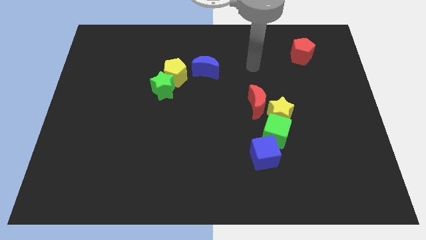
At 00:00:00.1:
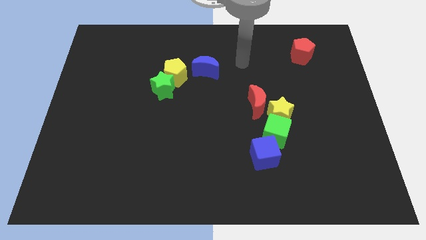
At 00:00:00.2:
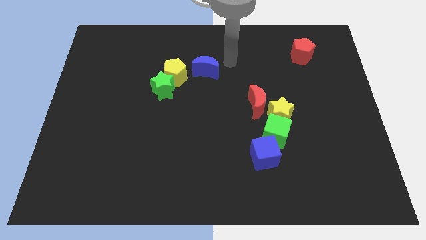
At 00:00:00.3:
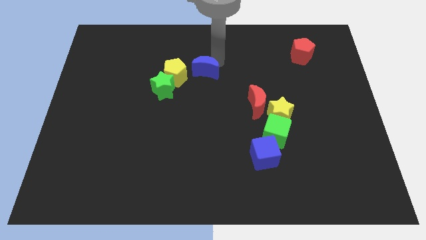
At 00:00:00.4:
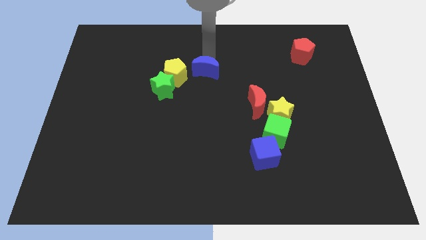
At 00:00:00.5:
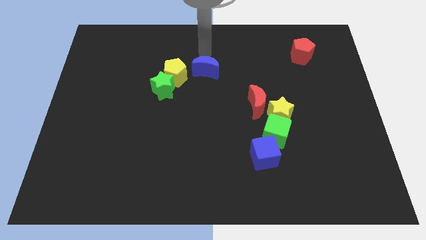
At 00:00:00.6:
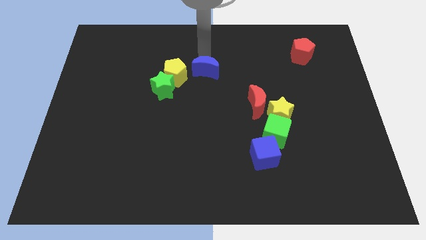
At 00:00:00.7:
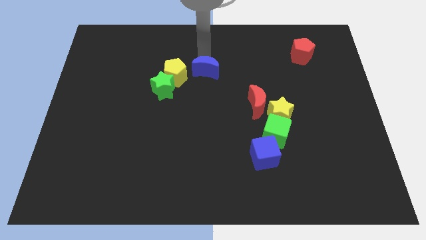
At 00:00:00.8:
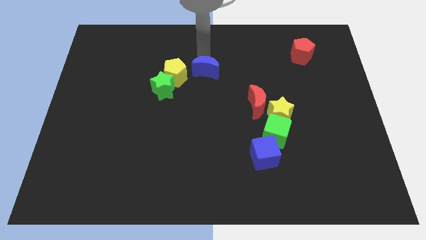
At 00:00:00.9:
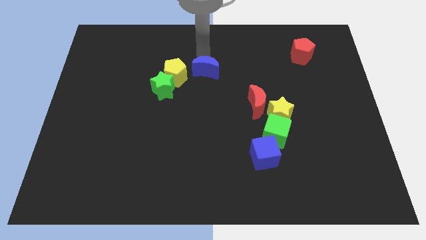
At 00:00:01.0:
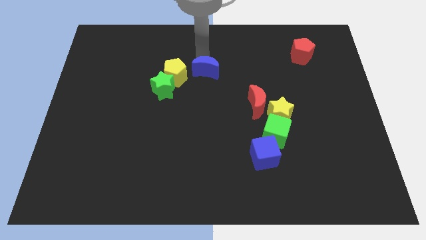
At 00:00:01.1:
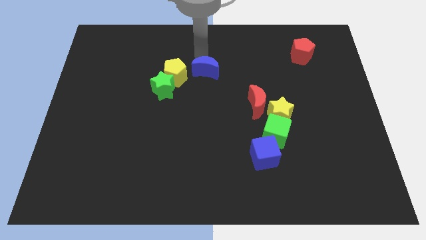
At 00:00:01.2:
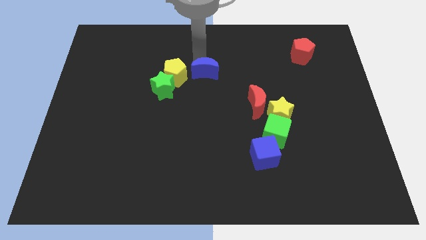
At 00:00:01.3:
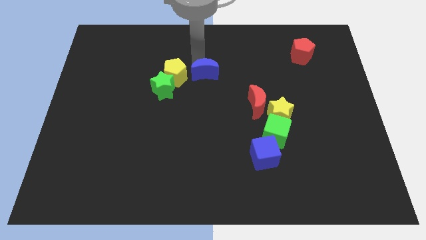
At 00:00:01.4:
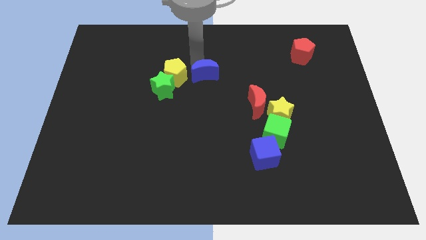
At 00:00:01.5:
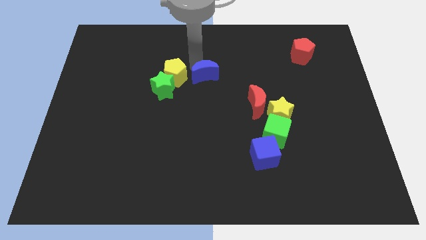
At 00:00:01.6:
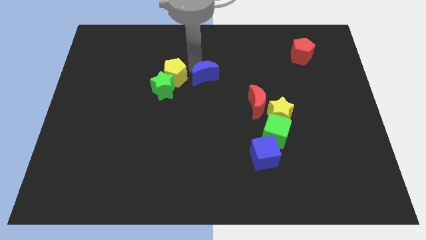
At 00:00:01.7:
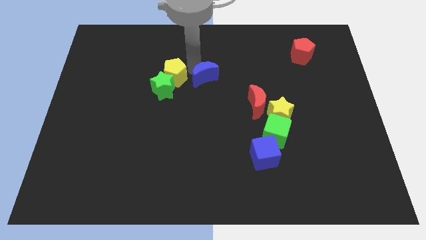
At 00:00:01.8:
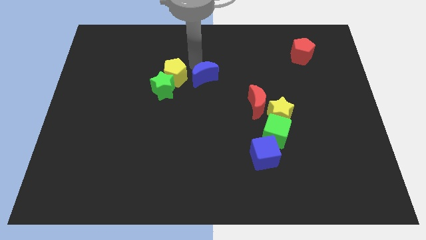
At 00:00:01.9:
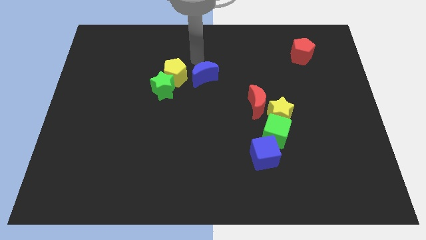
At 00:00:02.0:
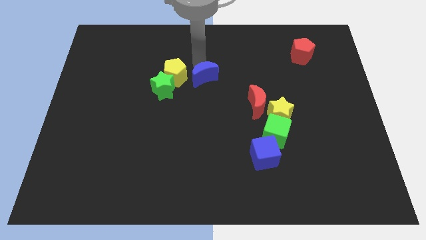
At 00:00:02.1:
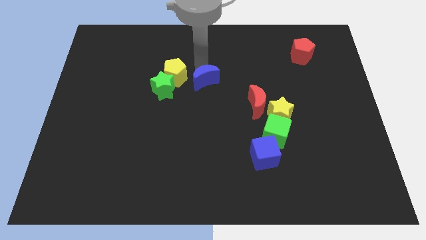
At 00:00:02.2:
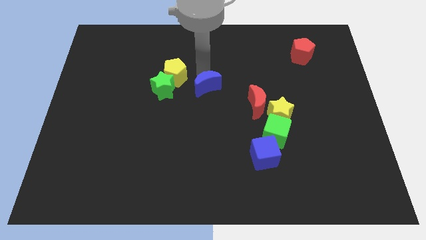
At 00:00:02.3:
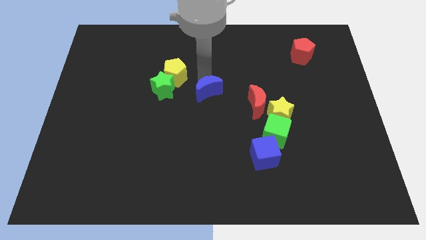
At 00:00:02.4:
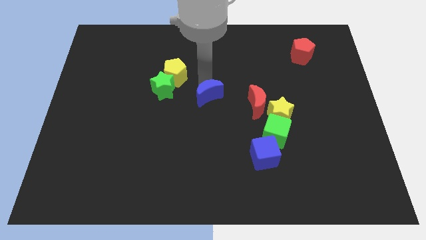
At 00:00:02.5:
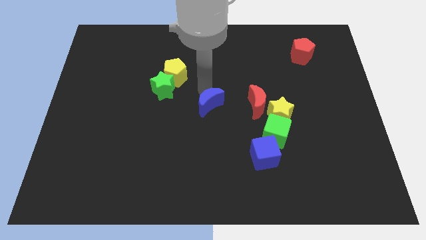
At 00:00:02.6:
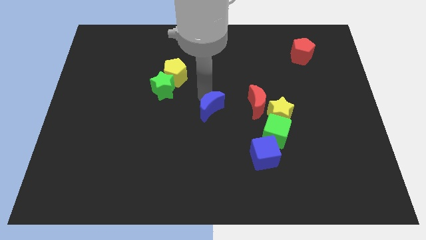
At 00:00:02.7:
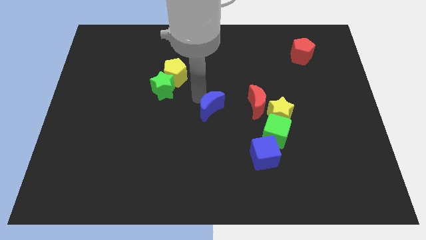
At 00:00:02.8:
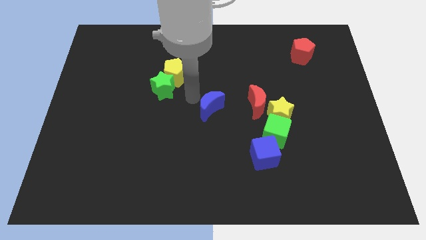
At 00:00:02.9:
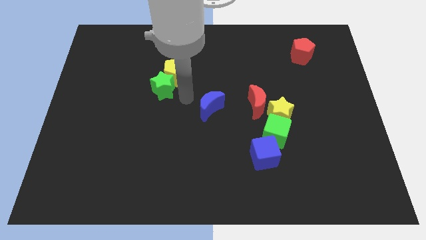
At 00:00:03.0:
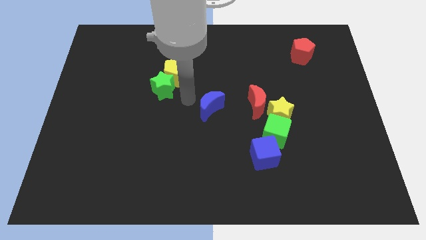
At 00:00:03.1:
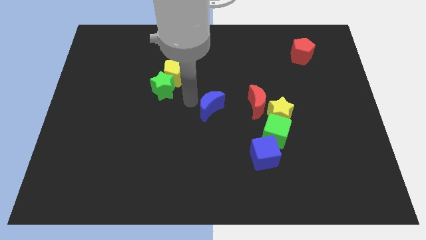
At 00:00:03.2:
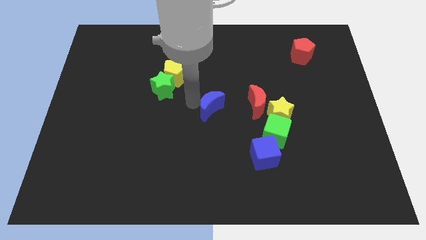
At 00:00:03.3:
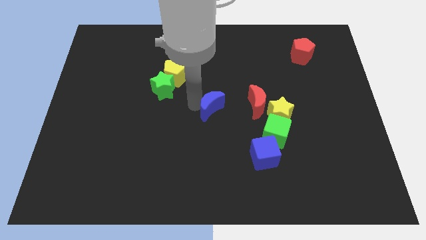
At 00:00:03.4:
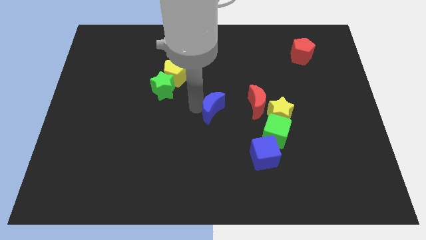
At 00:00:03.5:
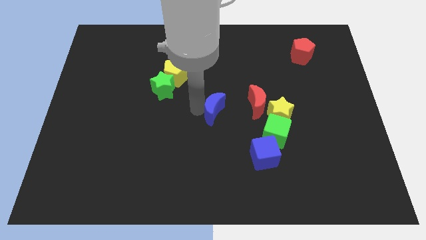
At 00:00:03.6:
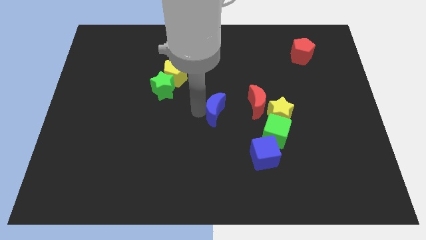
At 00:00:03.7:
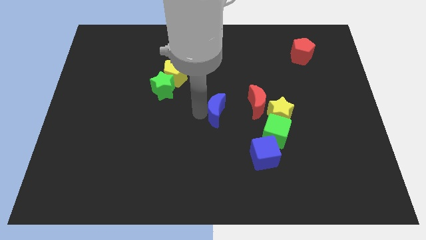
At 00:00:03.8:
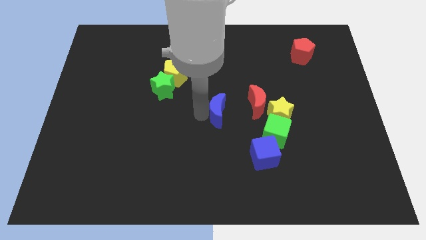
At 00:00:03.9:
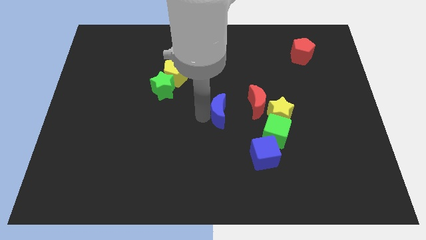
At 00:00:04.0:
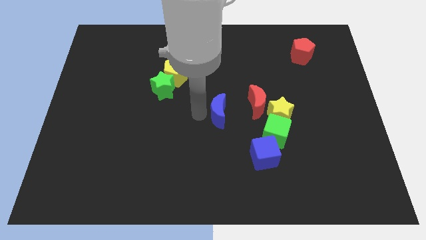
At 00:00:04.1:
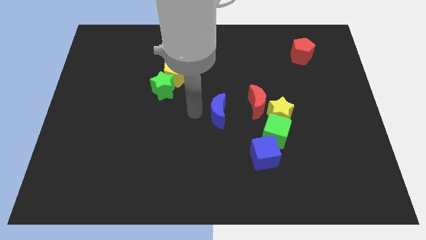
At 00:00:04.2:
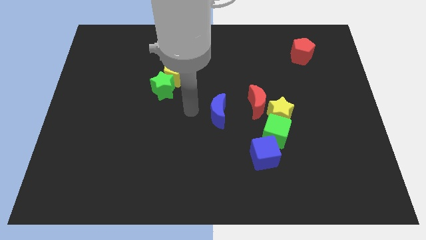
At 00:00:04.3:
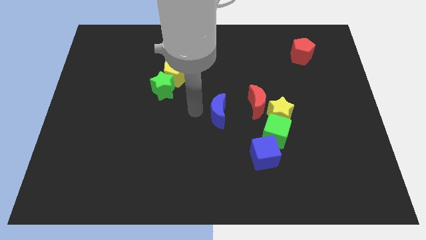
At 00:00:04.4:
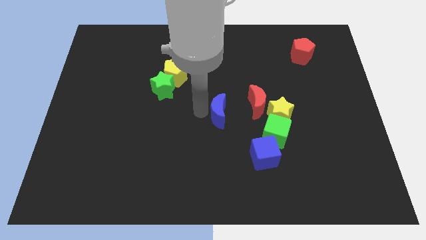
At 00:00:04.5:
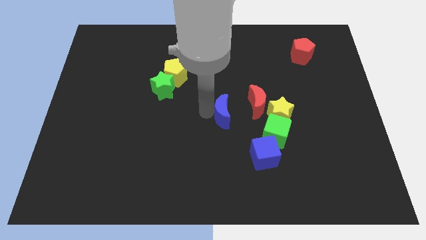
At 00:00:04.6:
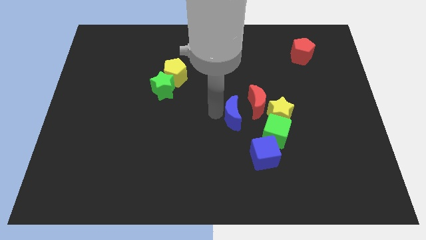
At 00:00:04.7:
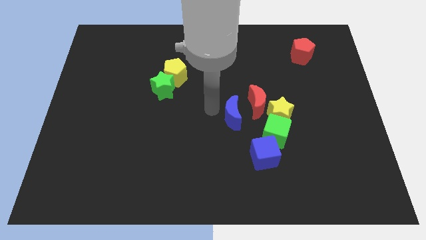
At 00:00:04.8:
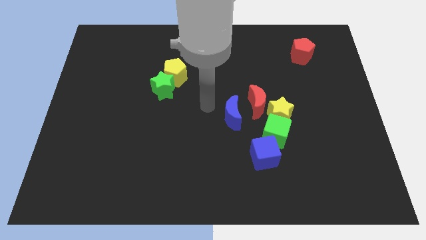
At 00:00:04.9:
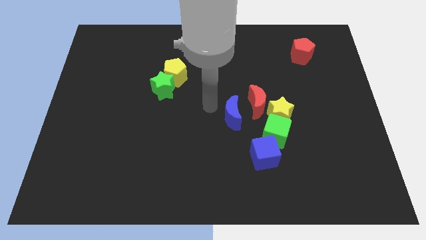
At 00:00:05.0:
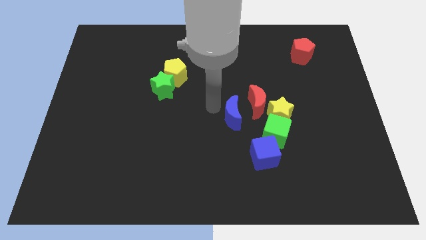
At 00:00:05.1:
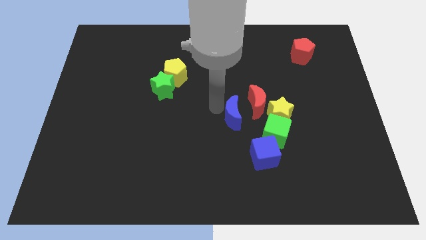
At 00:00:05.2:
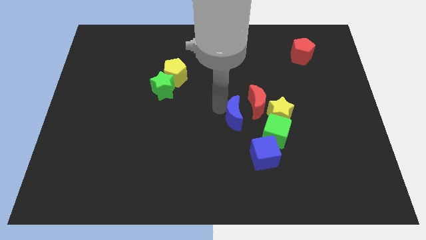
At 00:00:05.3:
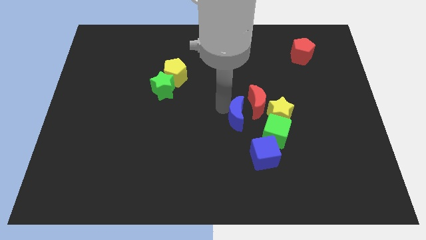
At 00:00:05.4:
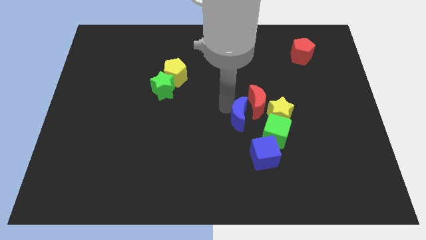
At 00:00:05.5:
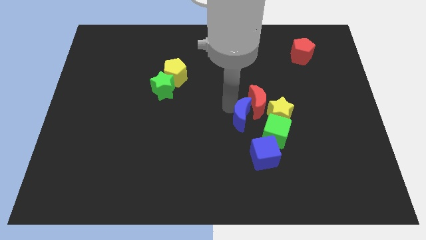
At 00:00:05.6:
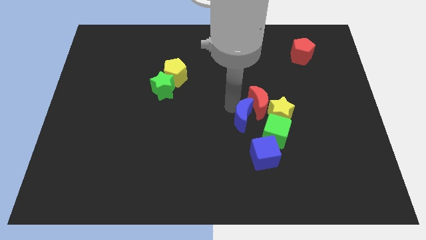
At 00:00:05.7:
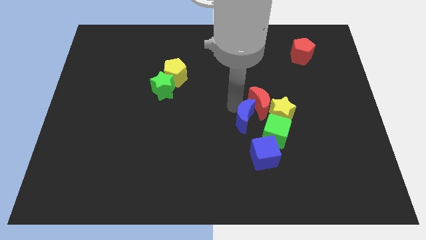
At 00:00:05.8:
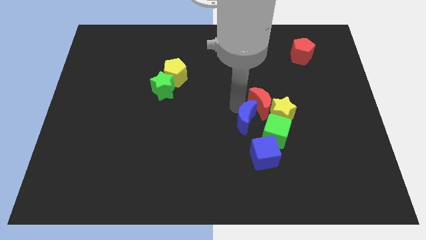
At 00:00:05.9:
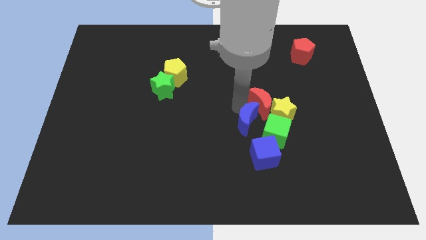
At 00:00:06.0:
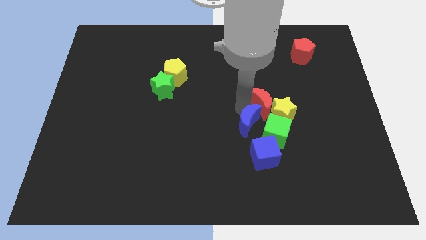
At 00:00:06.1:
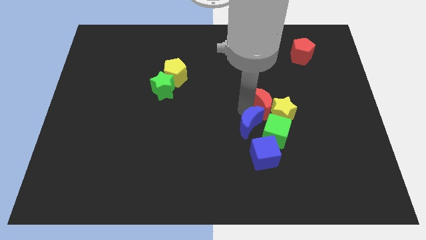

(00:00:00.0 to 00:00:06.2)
push the blue moon next to the green cube

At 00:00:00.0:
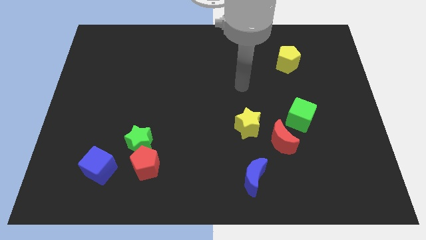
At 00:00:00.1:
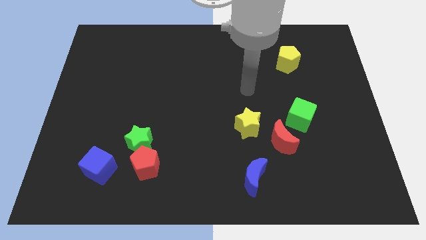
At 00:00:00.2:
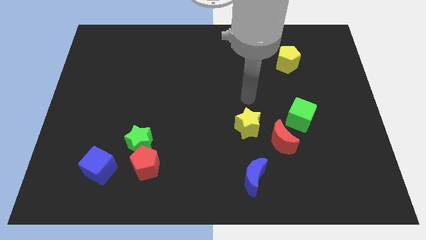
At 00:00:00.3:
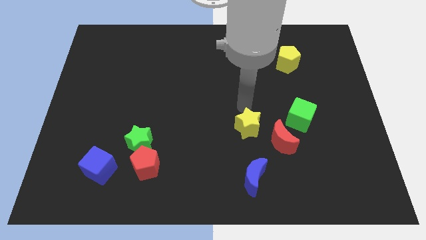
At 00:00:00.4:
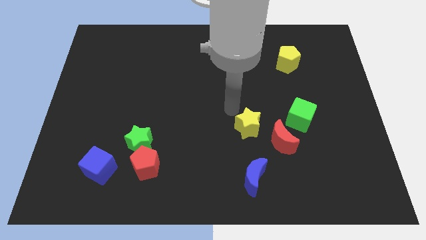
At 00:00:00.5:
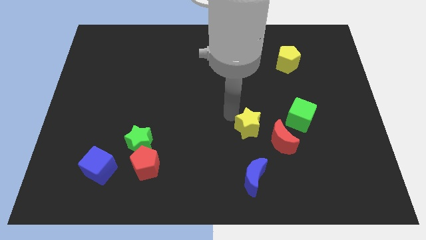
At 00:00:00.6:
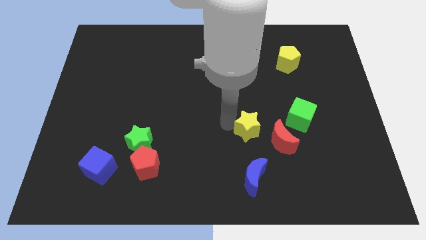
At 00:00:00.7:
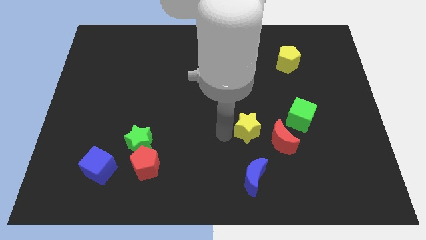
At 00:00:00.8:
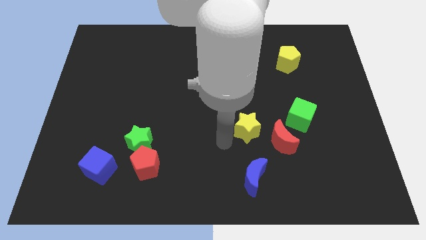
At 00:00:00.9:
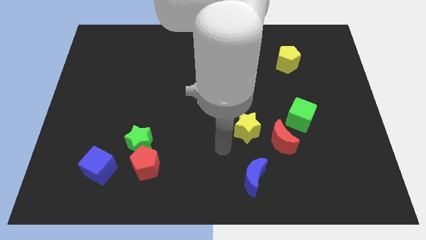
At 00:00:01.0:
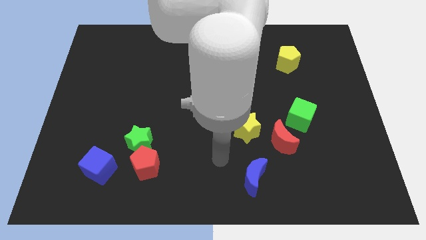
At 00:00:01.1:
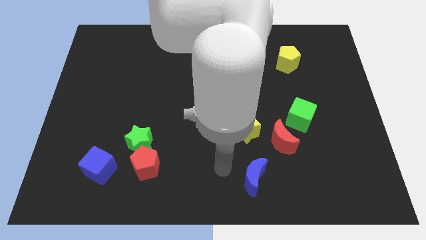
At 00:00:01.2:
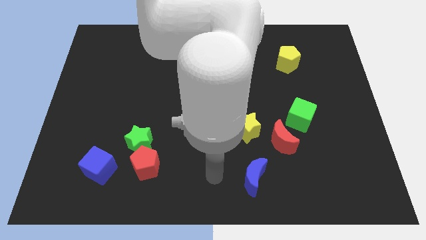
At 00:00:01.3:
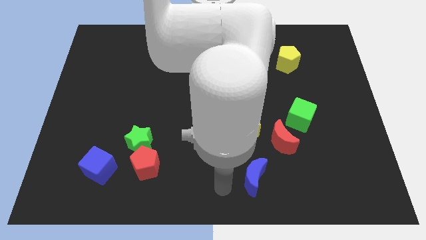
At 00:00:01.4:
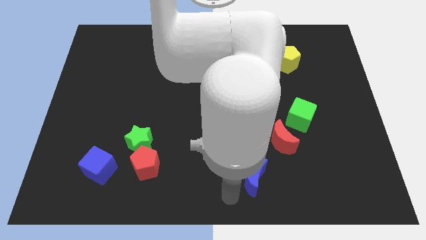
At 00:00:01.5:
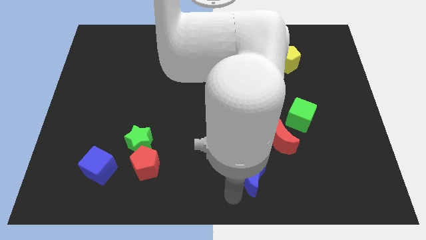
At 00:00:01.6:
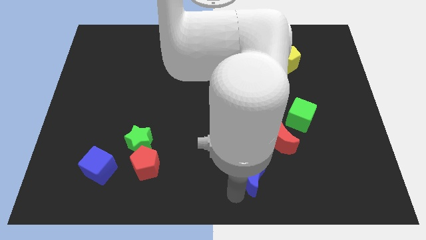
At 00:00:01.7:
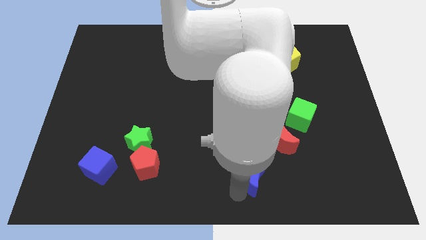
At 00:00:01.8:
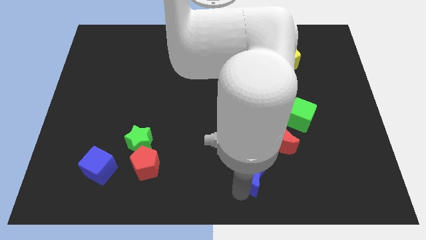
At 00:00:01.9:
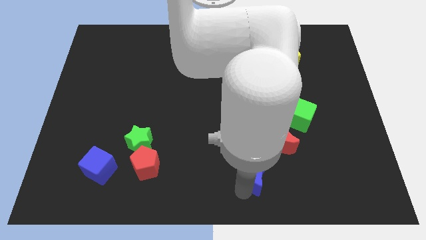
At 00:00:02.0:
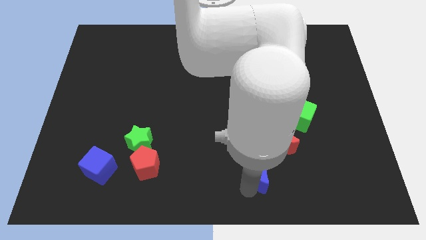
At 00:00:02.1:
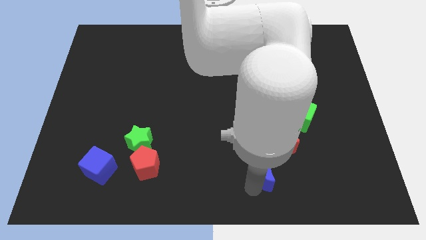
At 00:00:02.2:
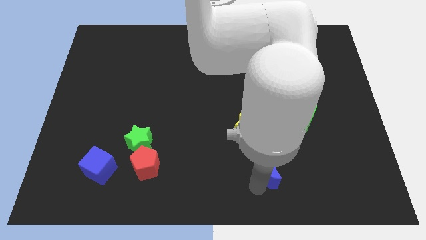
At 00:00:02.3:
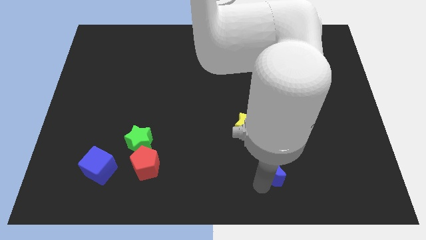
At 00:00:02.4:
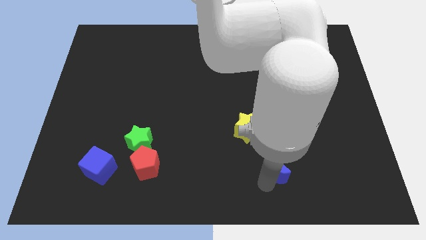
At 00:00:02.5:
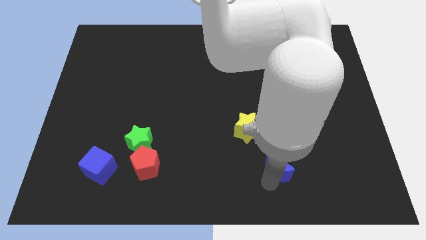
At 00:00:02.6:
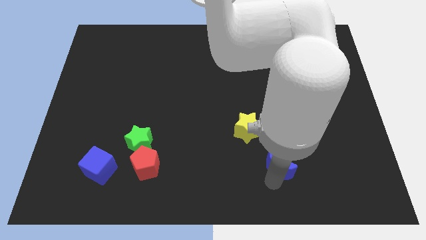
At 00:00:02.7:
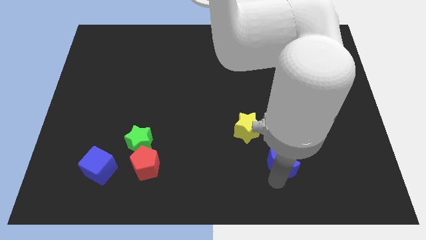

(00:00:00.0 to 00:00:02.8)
slide the blue moon next to the red moon
